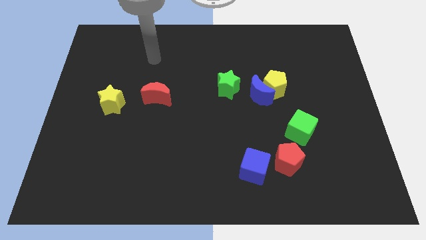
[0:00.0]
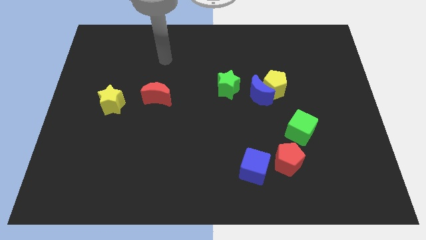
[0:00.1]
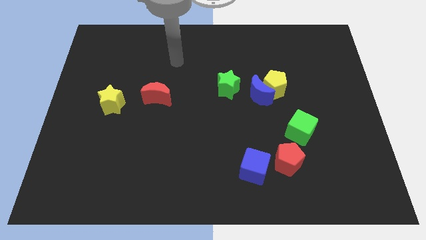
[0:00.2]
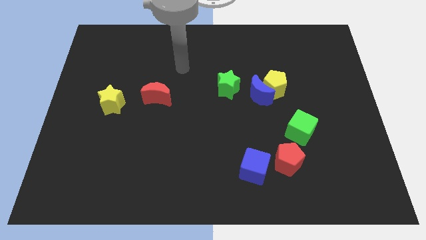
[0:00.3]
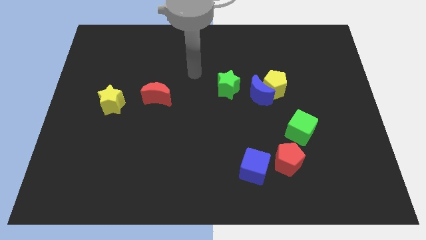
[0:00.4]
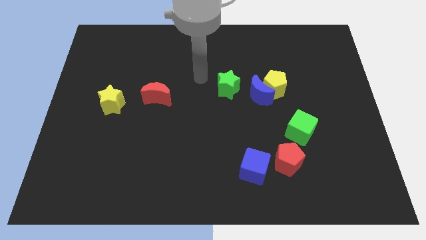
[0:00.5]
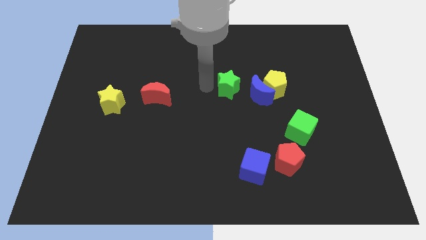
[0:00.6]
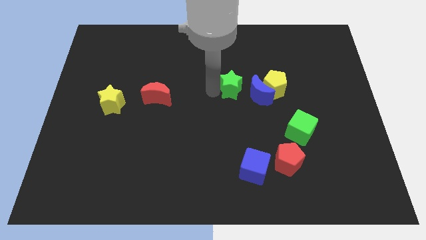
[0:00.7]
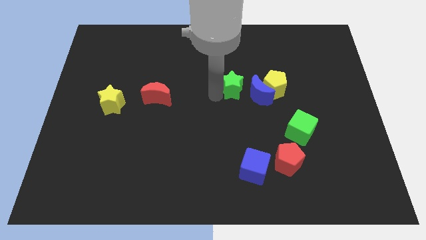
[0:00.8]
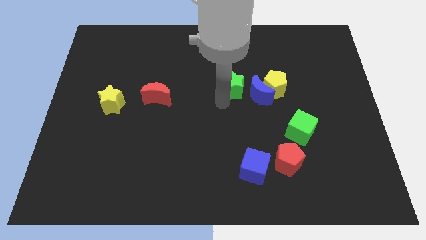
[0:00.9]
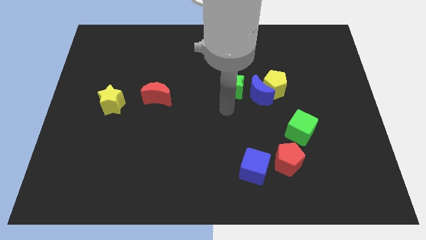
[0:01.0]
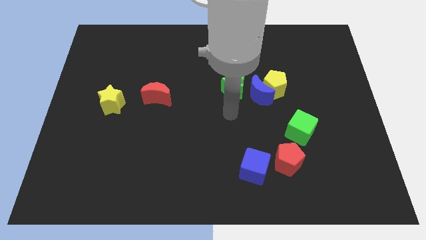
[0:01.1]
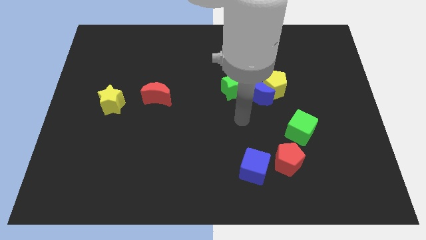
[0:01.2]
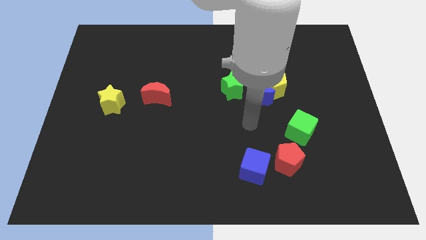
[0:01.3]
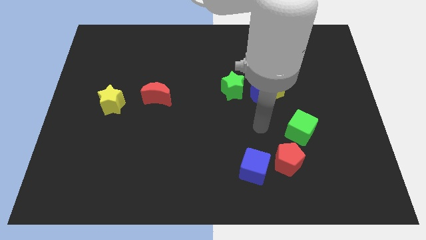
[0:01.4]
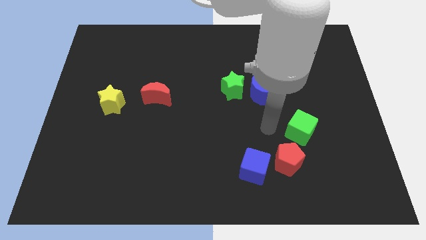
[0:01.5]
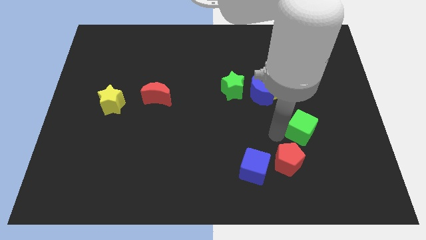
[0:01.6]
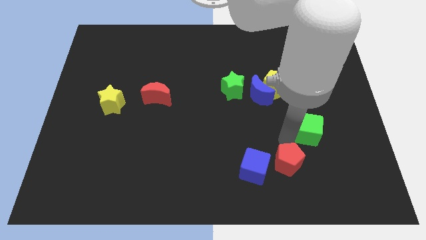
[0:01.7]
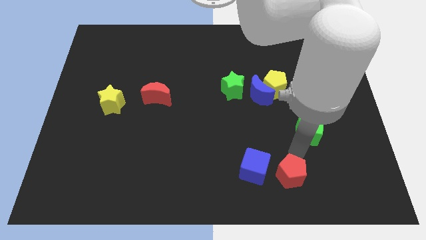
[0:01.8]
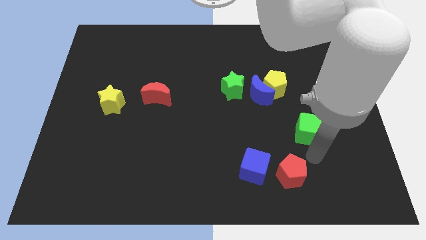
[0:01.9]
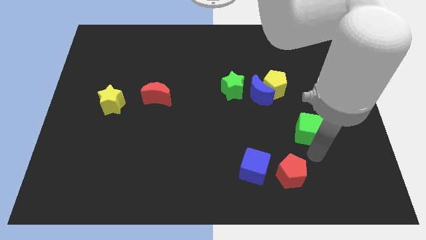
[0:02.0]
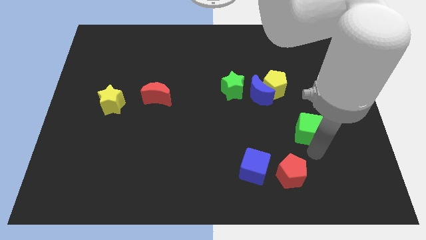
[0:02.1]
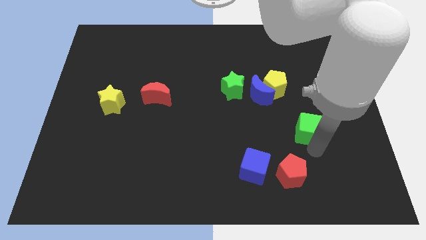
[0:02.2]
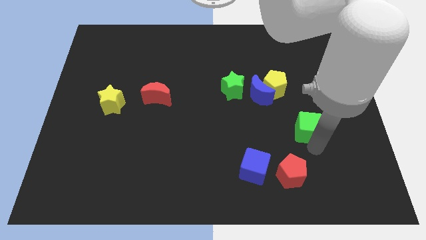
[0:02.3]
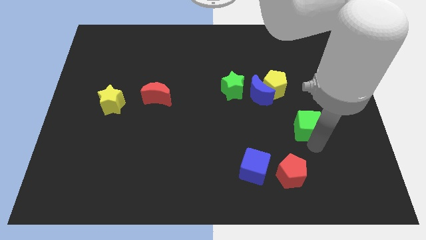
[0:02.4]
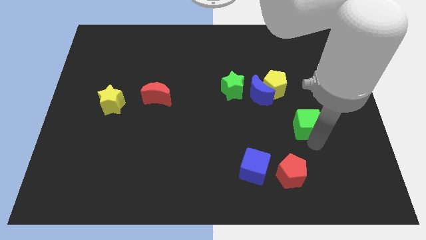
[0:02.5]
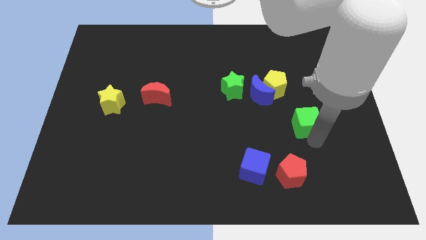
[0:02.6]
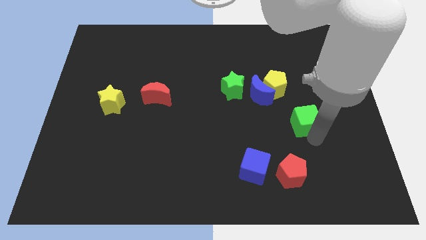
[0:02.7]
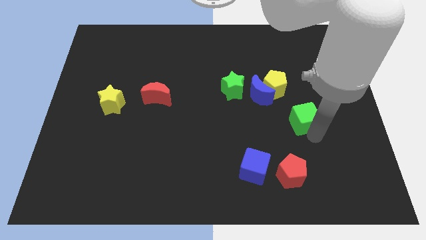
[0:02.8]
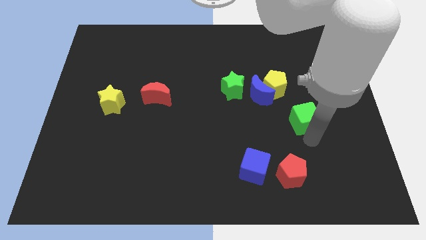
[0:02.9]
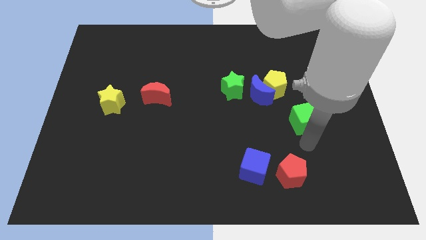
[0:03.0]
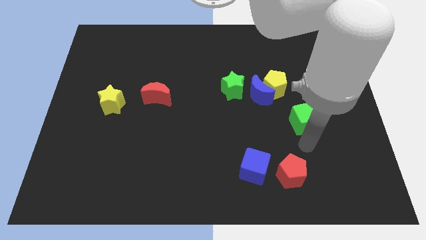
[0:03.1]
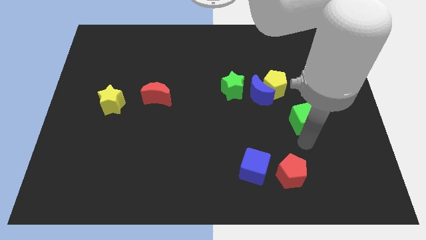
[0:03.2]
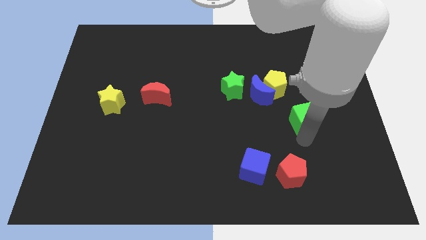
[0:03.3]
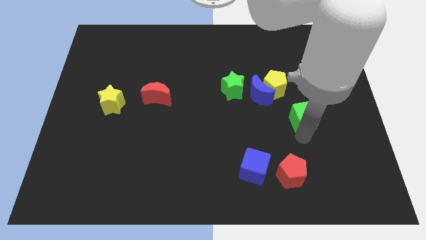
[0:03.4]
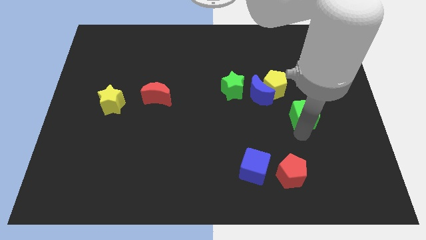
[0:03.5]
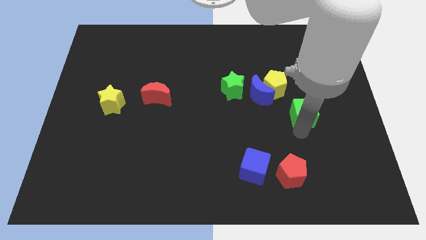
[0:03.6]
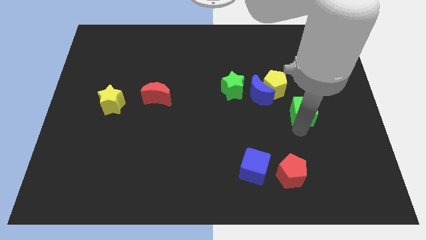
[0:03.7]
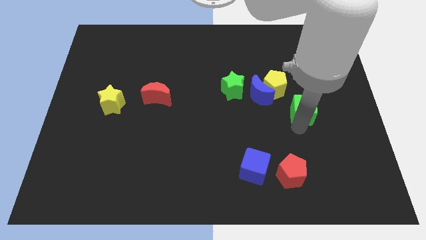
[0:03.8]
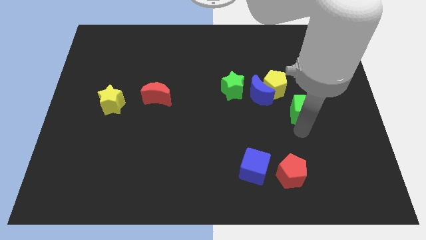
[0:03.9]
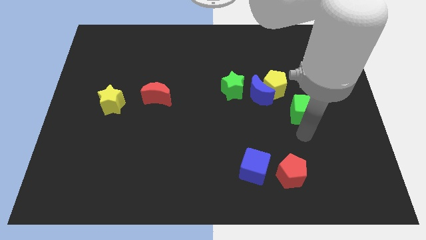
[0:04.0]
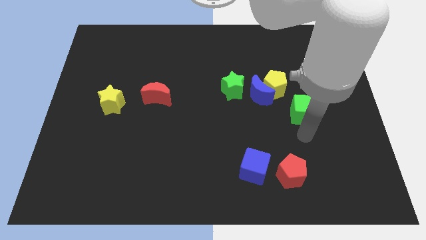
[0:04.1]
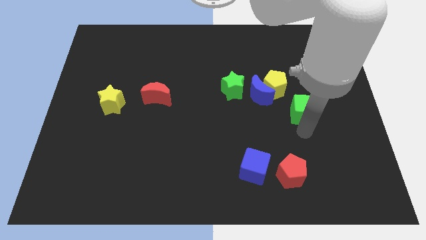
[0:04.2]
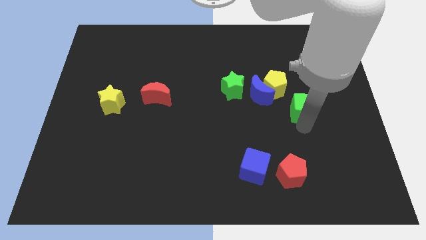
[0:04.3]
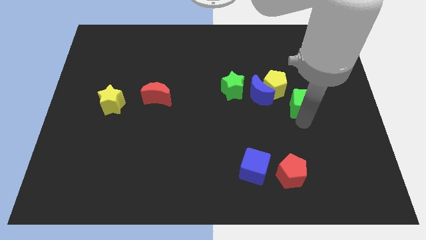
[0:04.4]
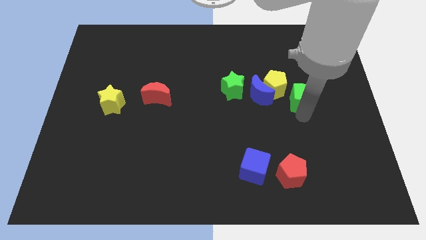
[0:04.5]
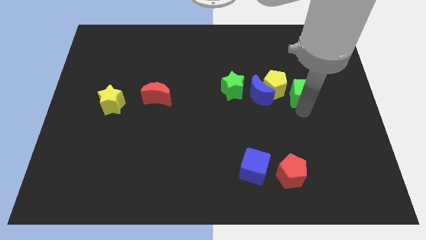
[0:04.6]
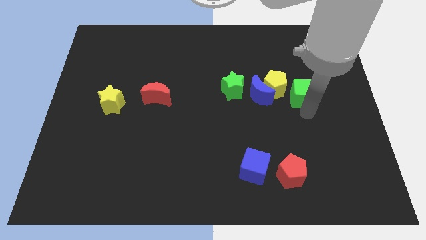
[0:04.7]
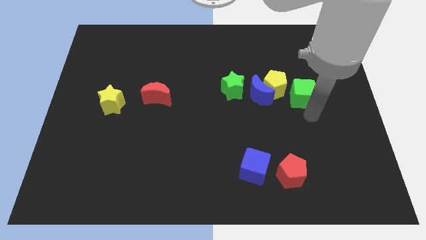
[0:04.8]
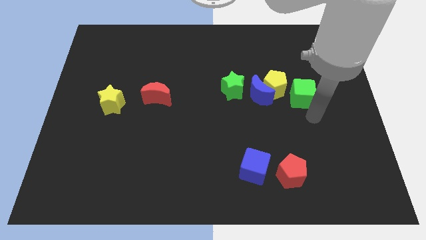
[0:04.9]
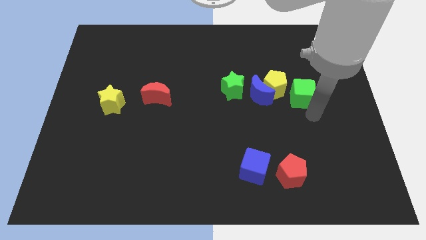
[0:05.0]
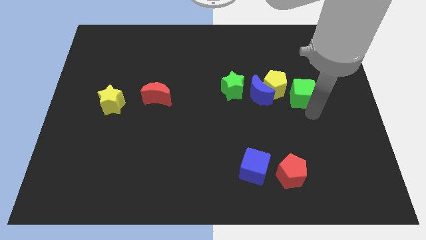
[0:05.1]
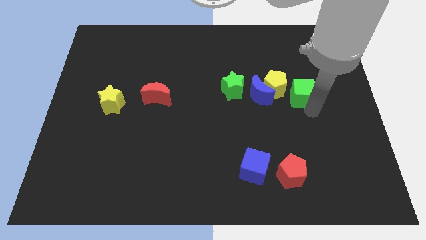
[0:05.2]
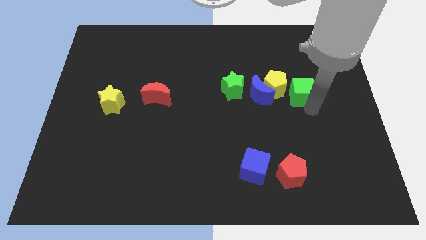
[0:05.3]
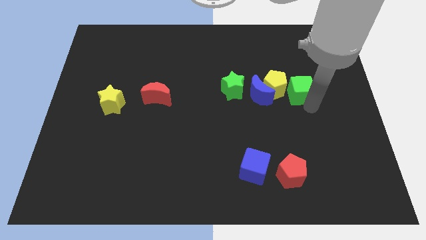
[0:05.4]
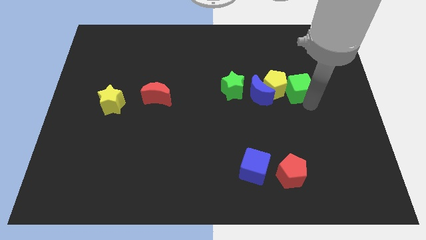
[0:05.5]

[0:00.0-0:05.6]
move the green cube diagonally up and to the right of the yellow pentagon

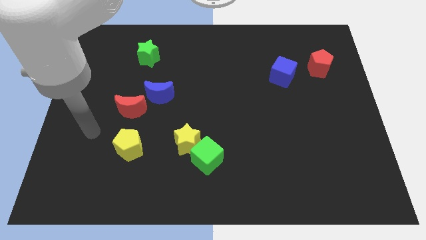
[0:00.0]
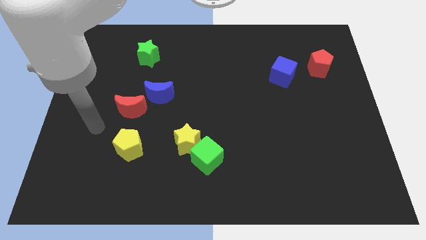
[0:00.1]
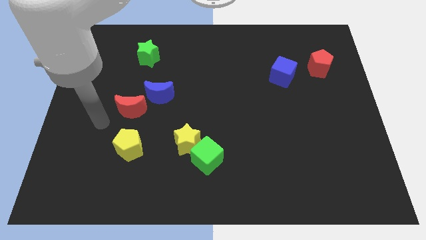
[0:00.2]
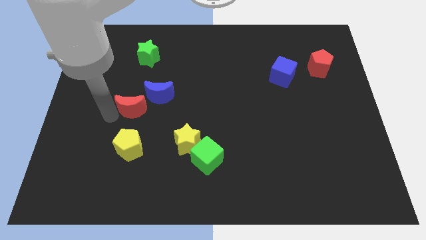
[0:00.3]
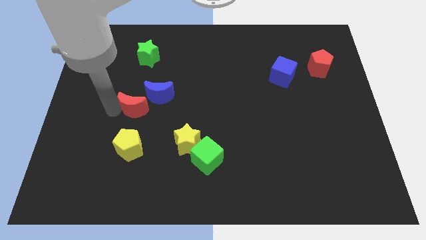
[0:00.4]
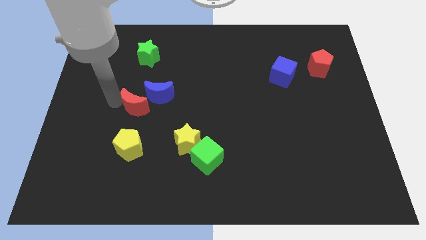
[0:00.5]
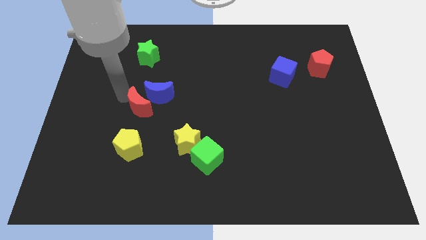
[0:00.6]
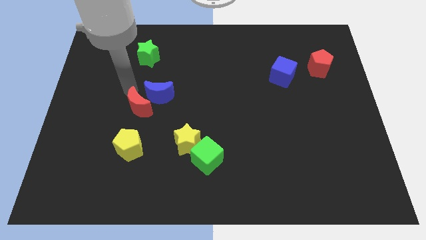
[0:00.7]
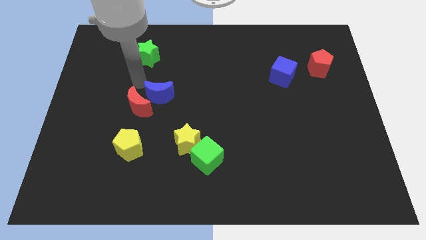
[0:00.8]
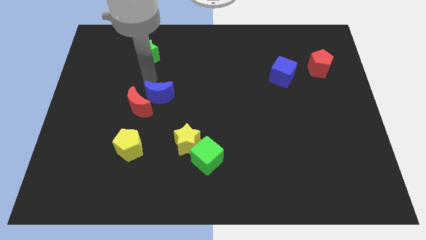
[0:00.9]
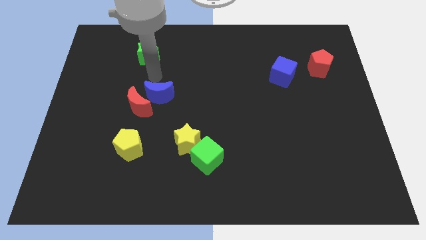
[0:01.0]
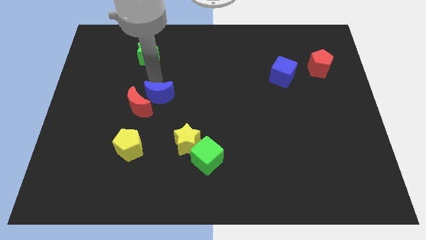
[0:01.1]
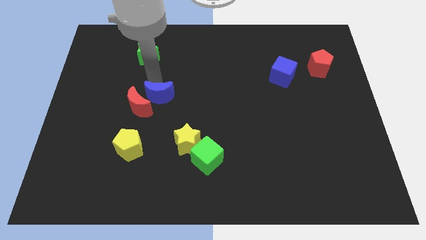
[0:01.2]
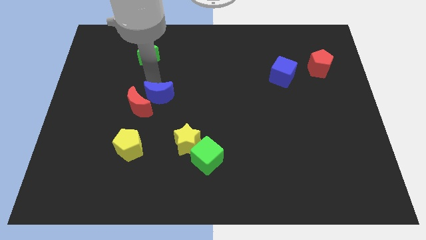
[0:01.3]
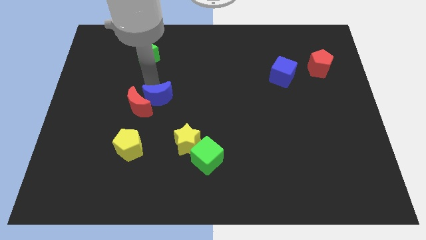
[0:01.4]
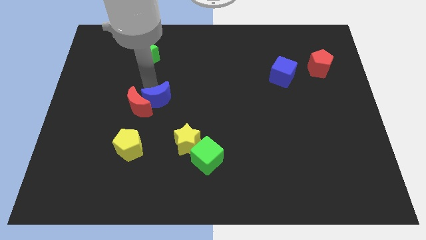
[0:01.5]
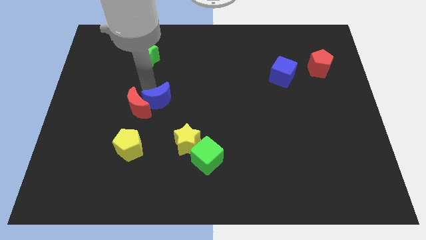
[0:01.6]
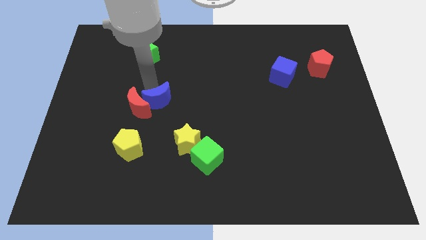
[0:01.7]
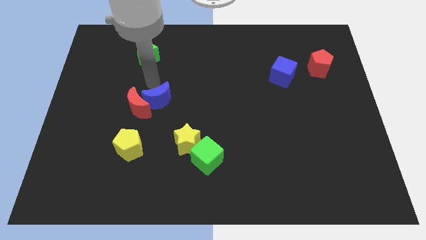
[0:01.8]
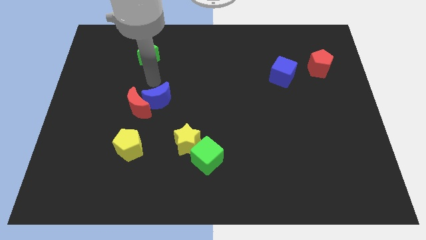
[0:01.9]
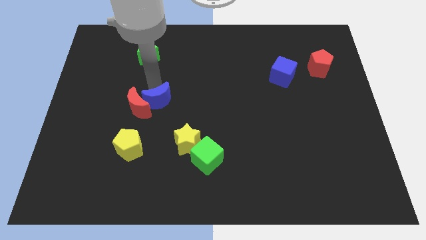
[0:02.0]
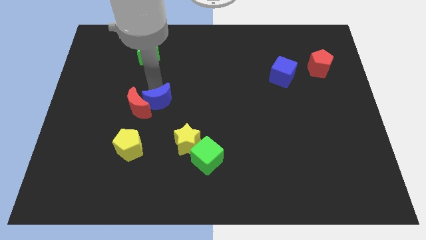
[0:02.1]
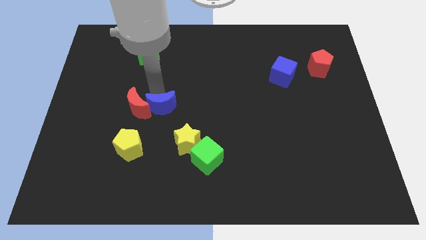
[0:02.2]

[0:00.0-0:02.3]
slide the blue moon diagonally up and to the left of the yellow star

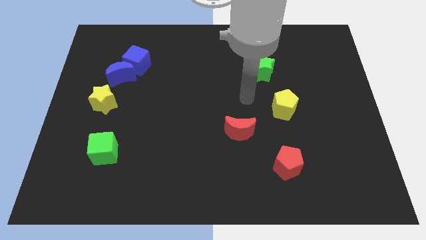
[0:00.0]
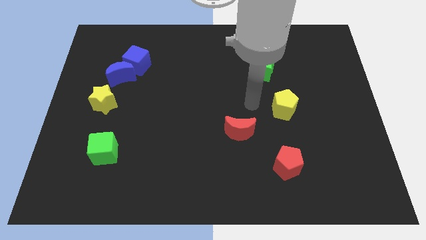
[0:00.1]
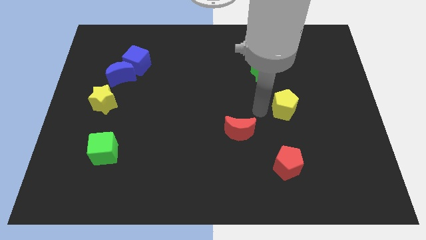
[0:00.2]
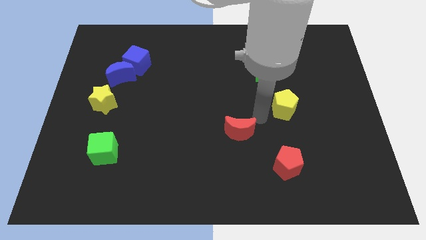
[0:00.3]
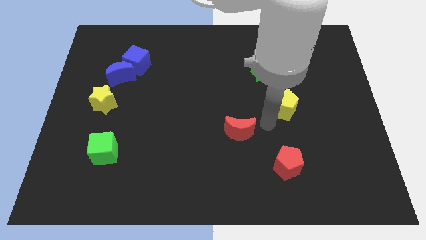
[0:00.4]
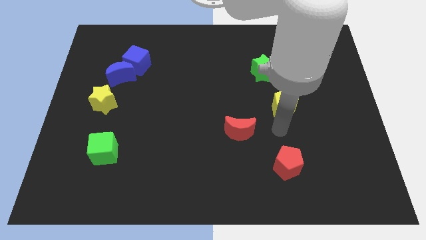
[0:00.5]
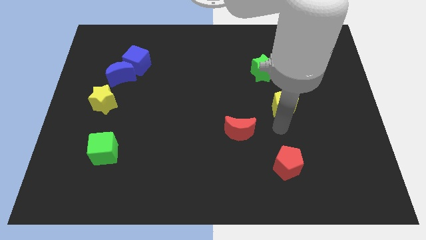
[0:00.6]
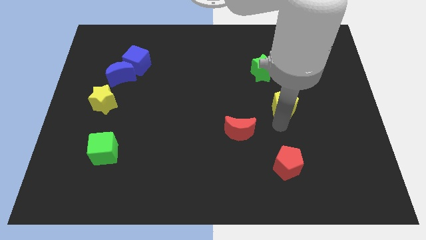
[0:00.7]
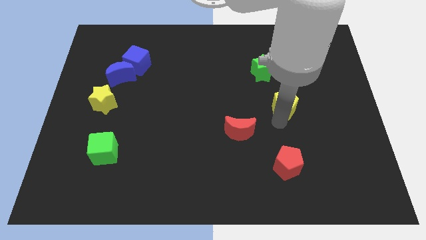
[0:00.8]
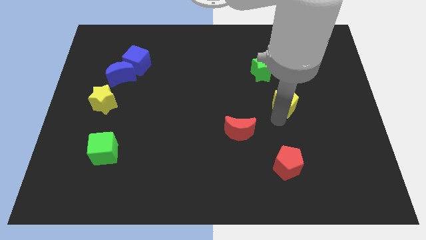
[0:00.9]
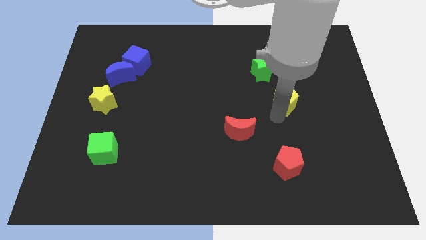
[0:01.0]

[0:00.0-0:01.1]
slide the yellow pentagon to the bottom right side of the green star
